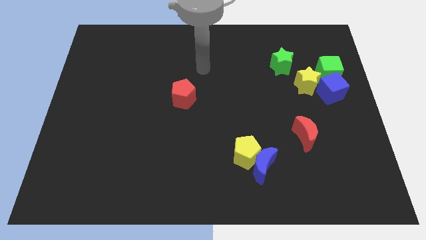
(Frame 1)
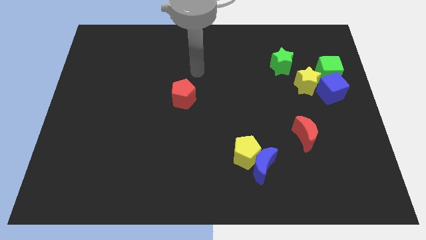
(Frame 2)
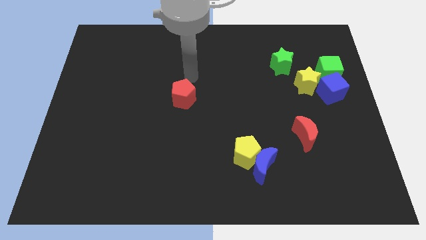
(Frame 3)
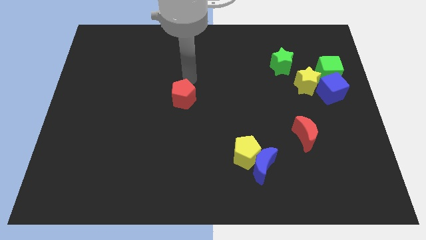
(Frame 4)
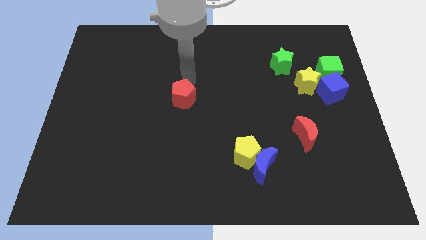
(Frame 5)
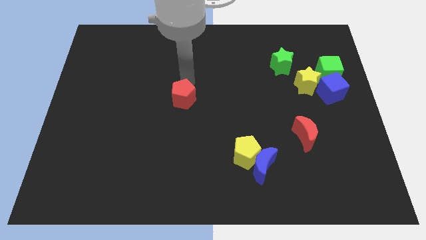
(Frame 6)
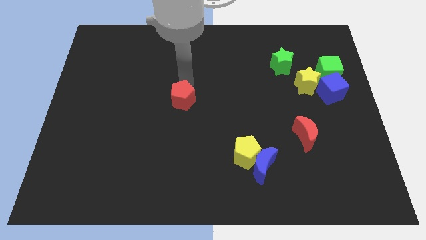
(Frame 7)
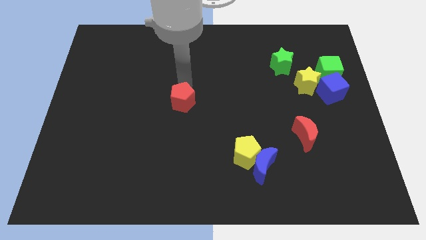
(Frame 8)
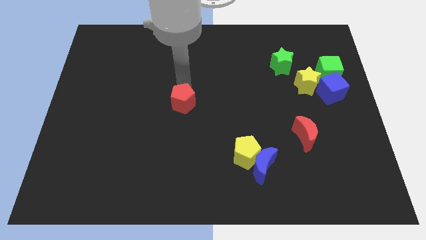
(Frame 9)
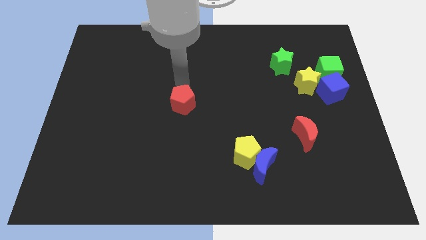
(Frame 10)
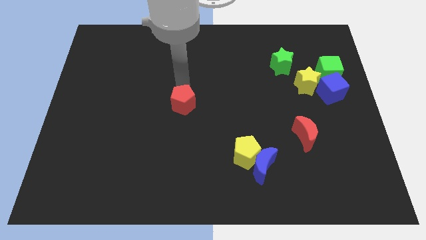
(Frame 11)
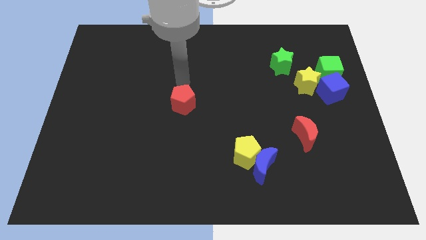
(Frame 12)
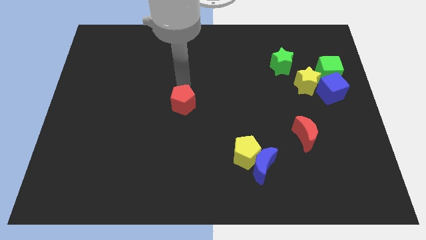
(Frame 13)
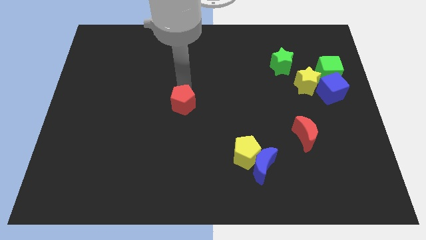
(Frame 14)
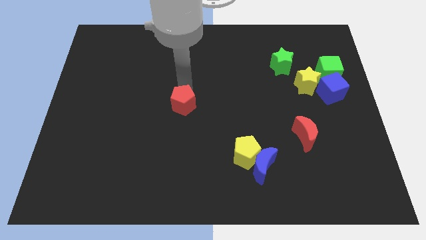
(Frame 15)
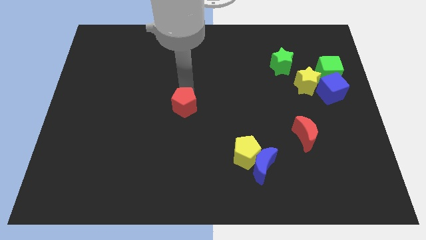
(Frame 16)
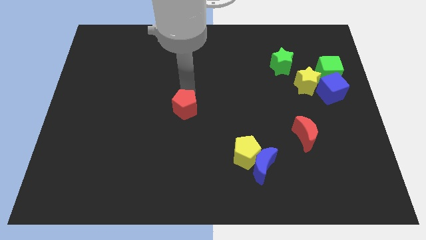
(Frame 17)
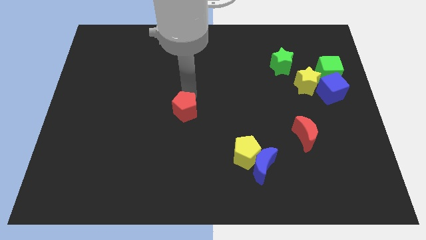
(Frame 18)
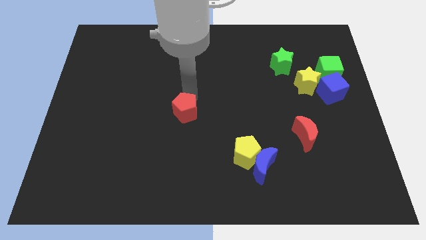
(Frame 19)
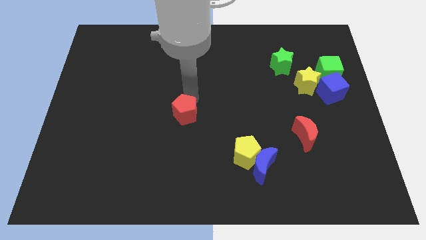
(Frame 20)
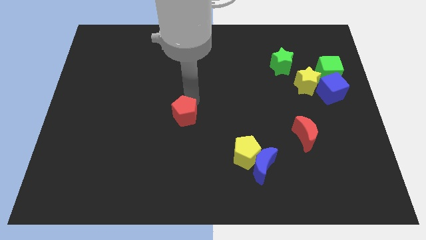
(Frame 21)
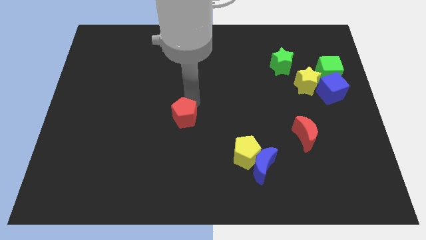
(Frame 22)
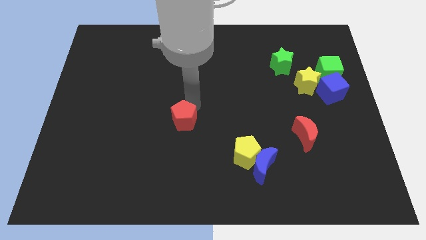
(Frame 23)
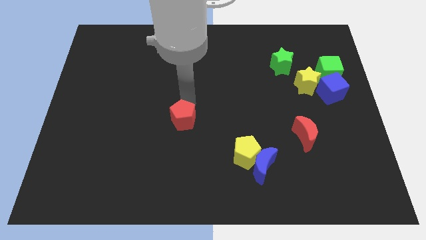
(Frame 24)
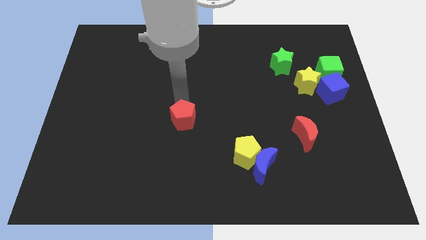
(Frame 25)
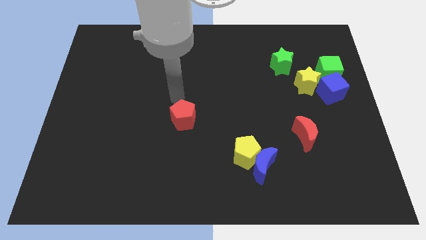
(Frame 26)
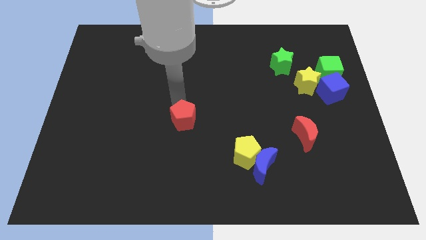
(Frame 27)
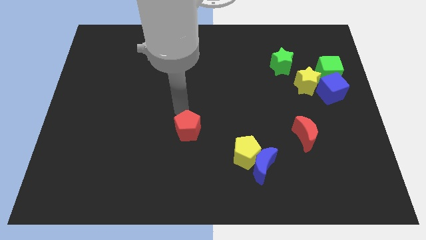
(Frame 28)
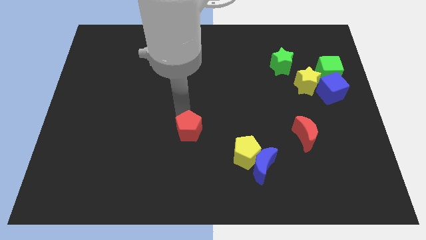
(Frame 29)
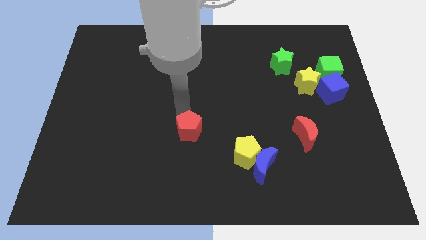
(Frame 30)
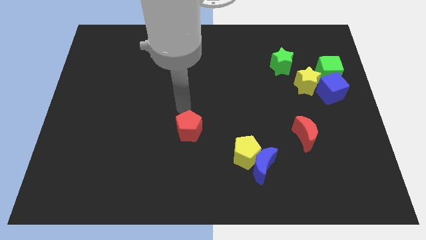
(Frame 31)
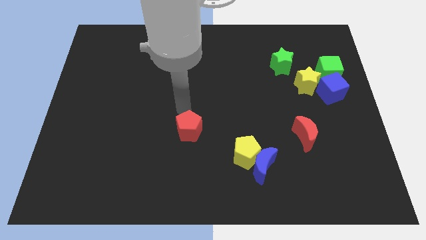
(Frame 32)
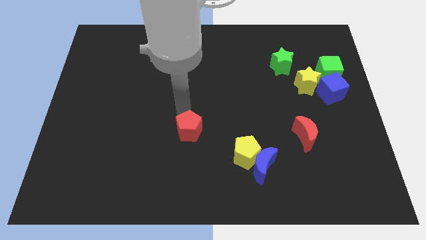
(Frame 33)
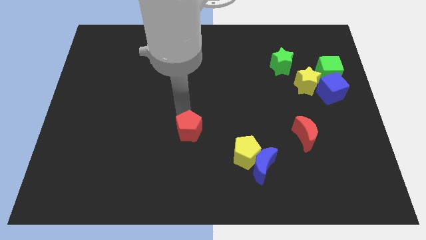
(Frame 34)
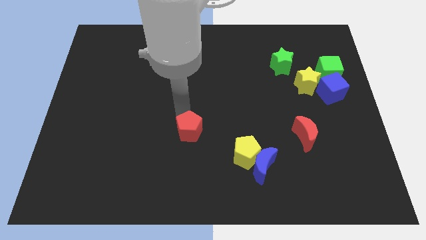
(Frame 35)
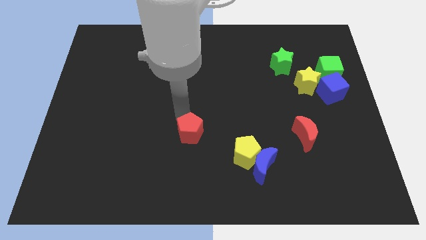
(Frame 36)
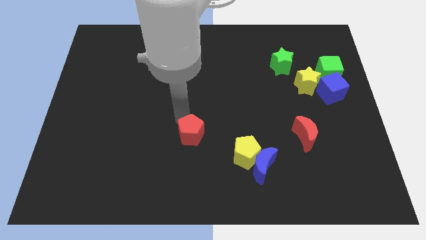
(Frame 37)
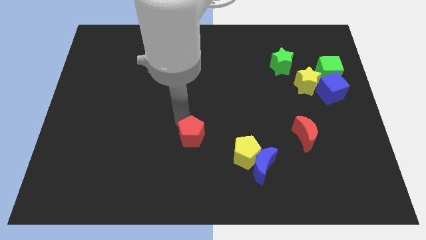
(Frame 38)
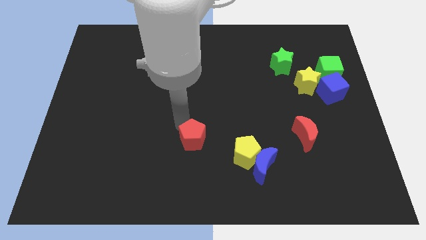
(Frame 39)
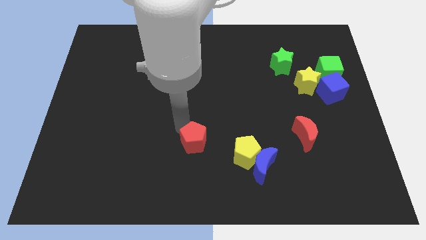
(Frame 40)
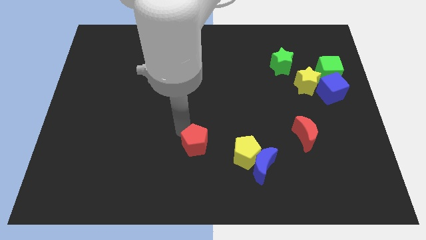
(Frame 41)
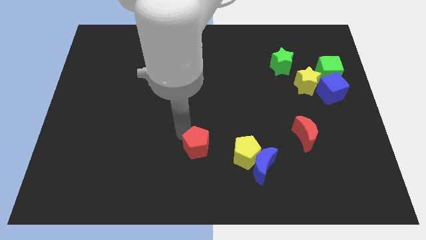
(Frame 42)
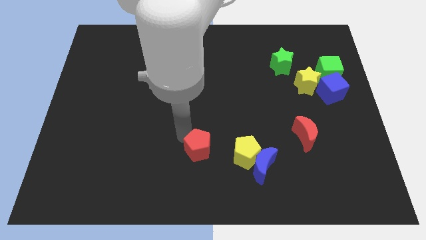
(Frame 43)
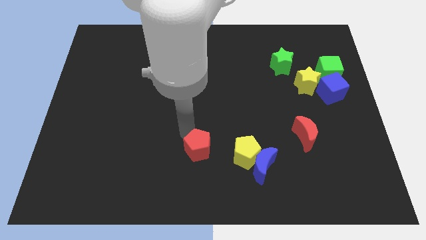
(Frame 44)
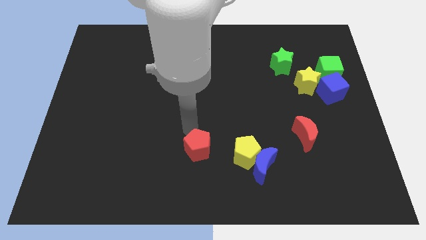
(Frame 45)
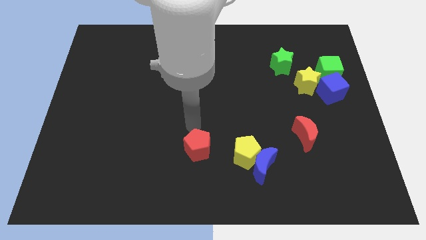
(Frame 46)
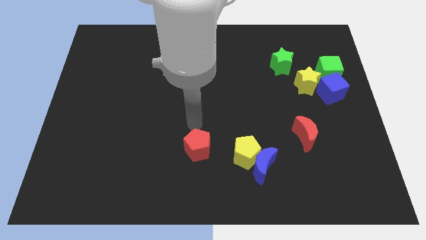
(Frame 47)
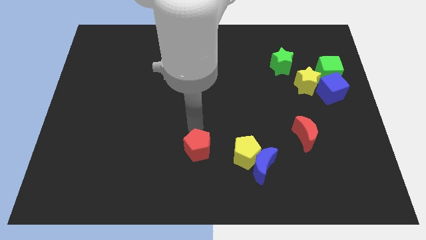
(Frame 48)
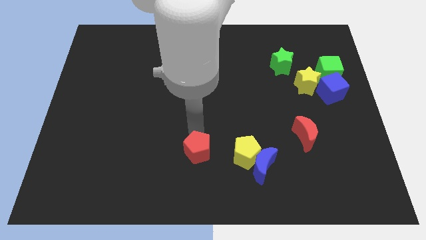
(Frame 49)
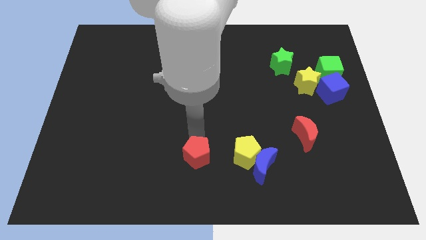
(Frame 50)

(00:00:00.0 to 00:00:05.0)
slide the red pentagon to the bottom side

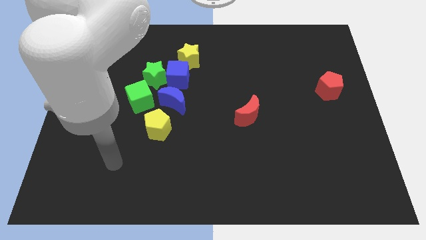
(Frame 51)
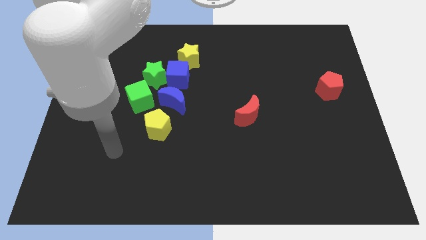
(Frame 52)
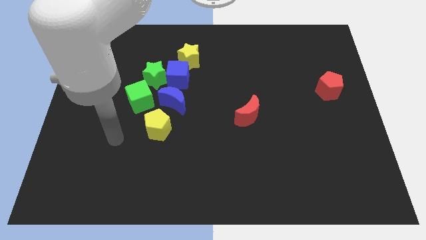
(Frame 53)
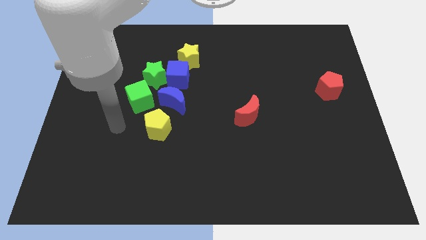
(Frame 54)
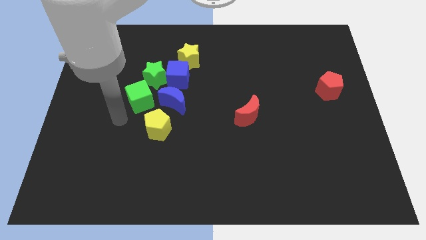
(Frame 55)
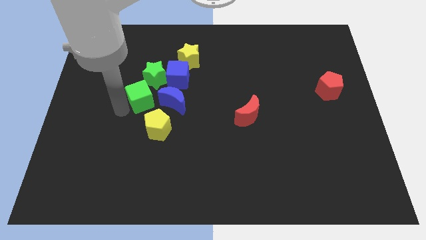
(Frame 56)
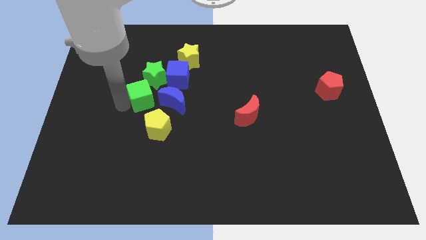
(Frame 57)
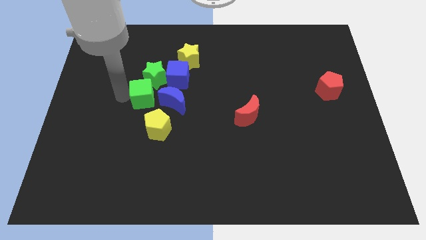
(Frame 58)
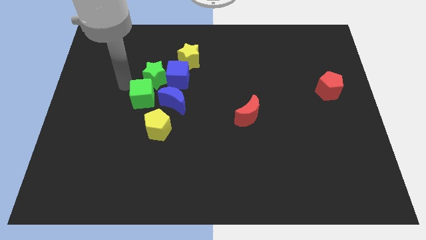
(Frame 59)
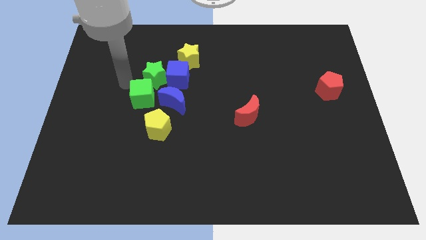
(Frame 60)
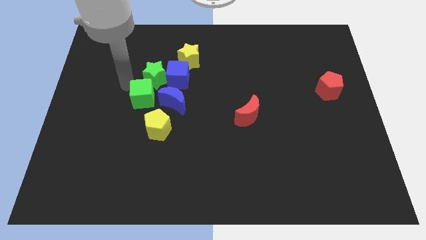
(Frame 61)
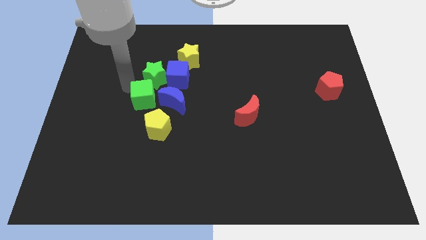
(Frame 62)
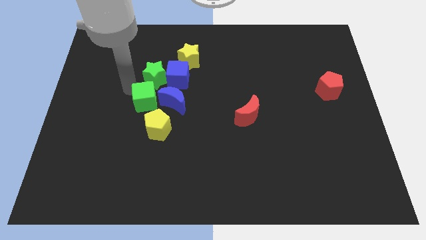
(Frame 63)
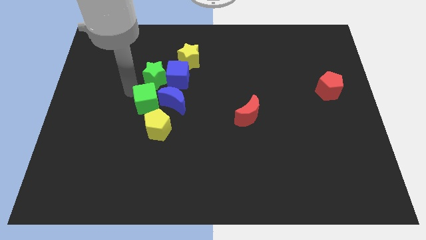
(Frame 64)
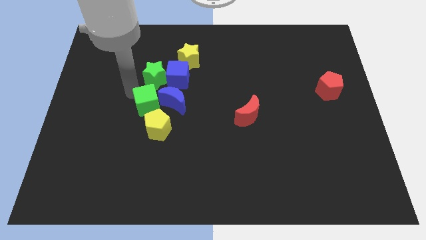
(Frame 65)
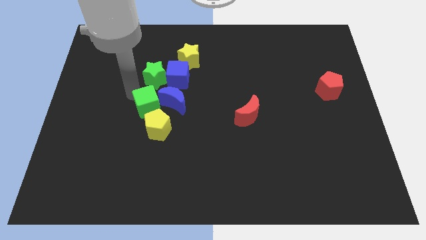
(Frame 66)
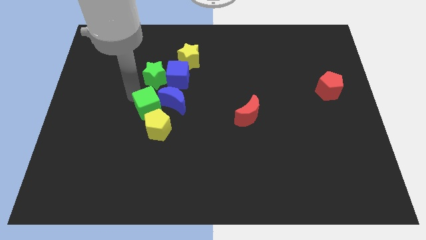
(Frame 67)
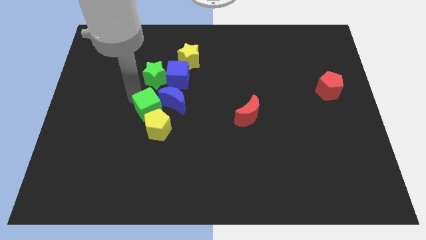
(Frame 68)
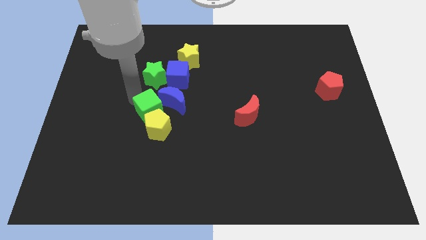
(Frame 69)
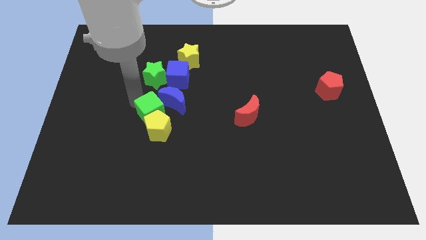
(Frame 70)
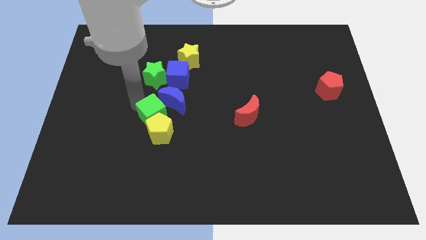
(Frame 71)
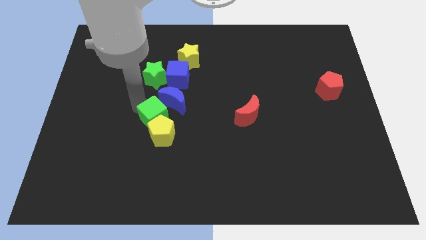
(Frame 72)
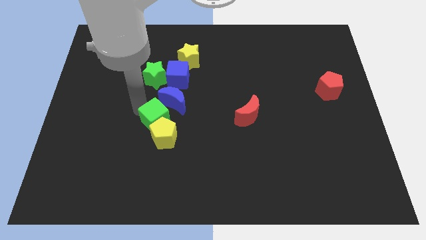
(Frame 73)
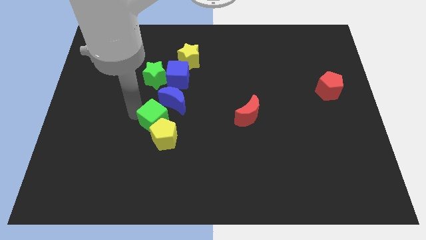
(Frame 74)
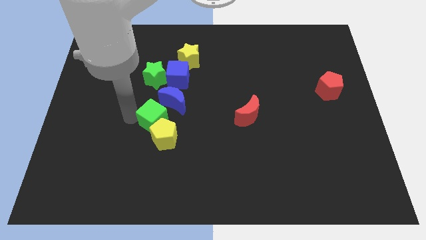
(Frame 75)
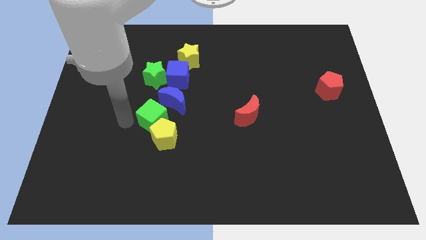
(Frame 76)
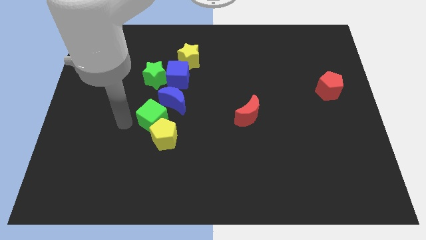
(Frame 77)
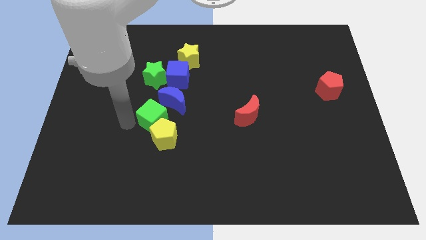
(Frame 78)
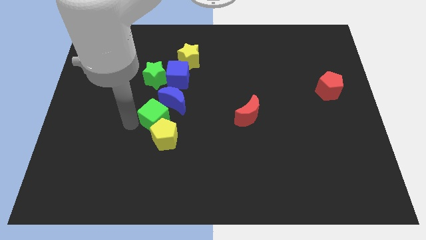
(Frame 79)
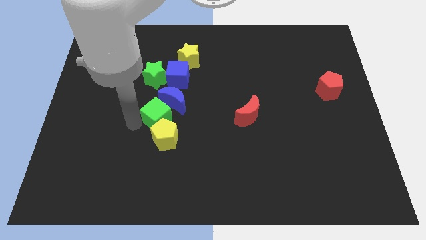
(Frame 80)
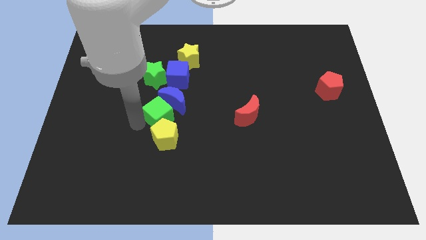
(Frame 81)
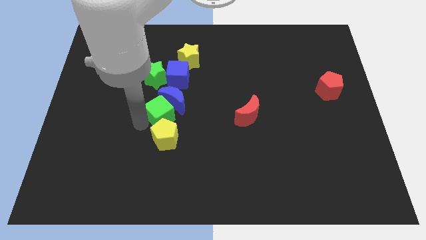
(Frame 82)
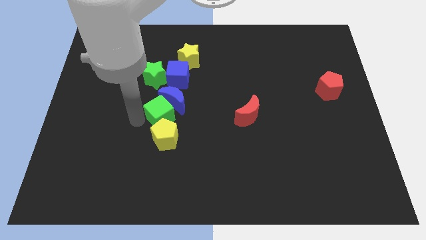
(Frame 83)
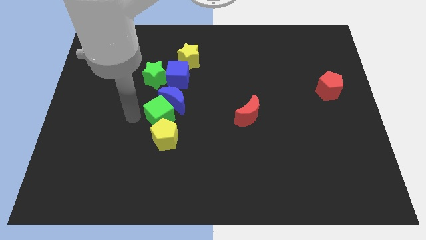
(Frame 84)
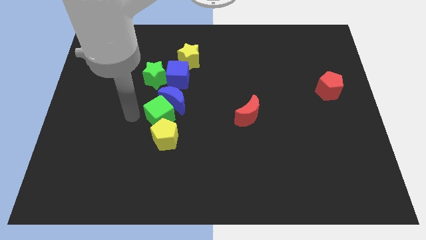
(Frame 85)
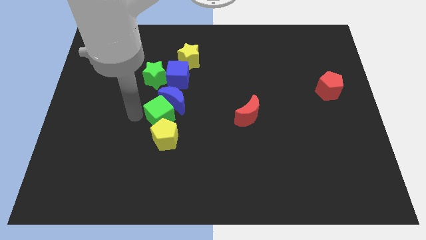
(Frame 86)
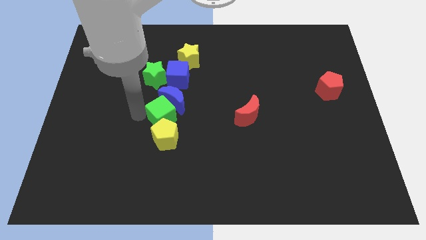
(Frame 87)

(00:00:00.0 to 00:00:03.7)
put the green cube to the center of the board
